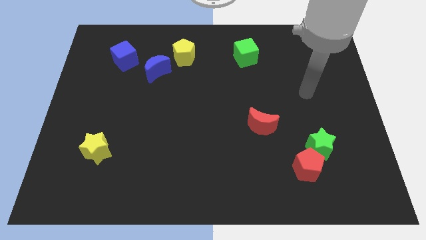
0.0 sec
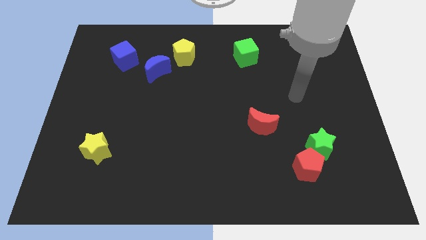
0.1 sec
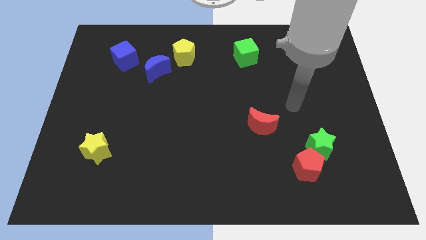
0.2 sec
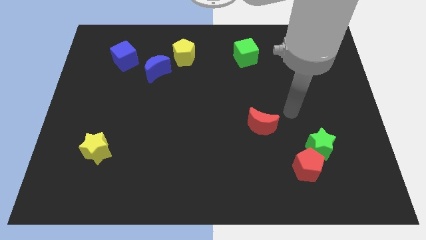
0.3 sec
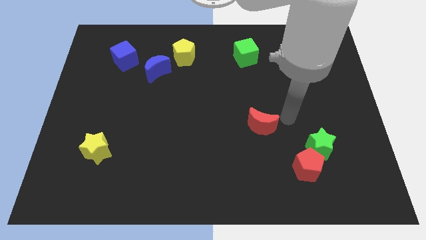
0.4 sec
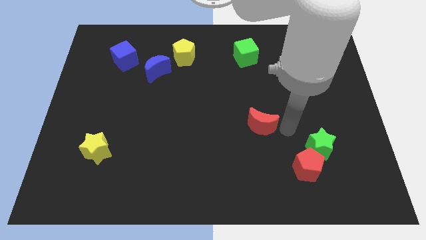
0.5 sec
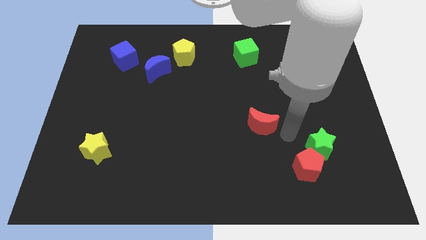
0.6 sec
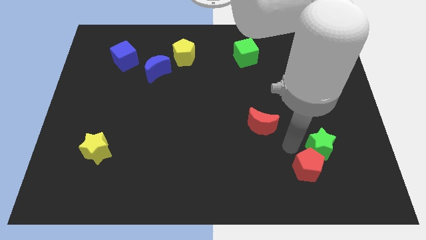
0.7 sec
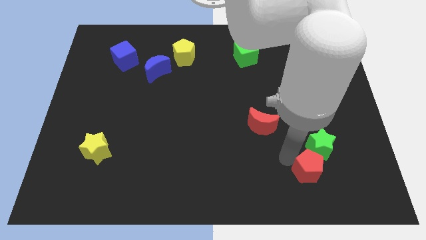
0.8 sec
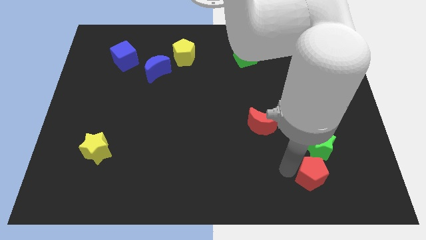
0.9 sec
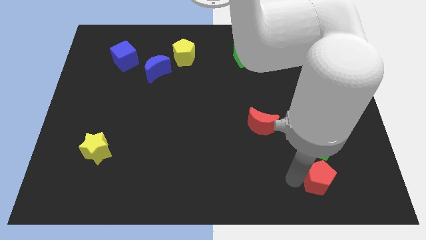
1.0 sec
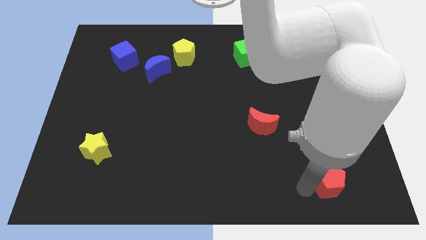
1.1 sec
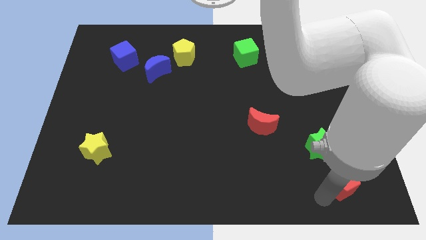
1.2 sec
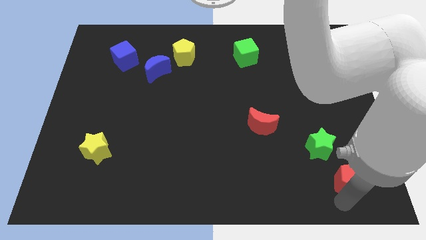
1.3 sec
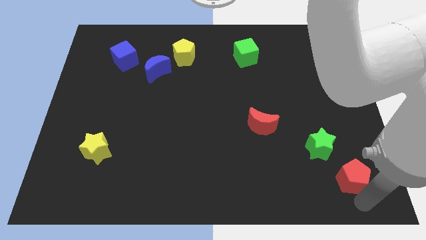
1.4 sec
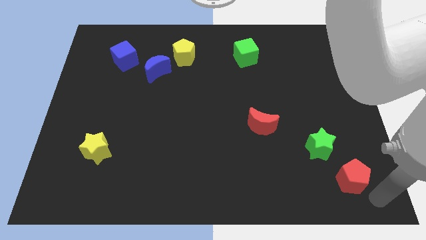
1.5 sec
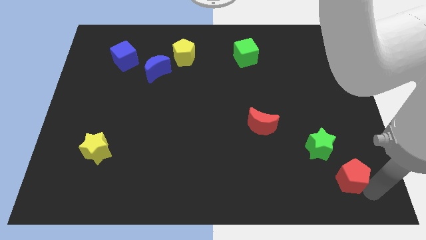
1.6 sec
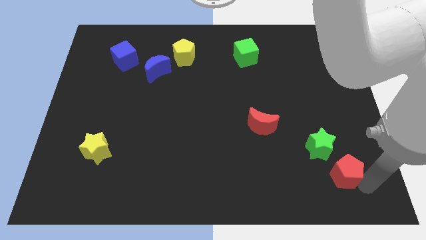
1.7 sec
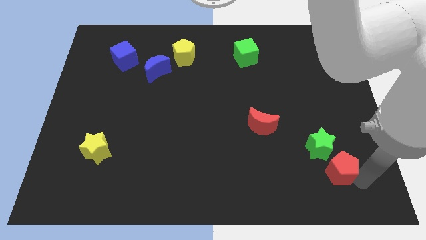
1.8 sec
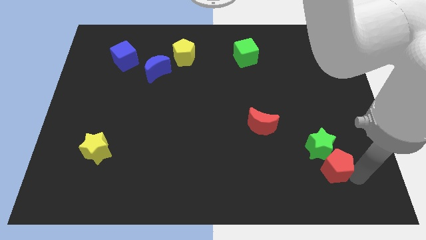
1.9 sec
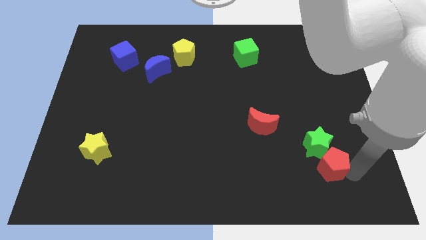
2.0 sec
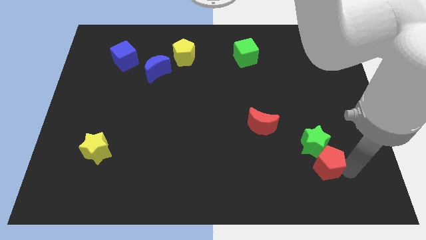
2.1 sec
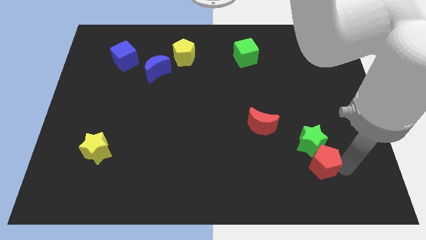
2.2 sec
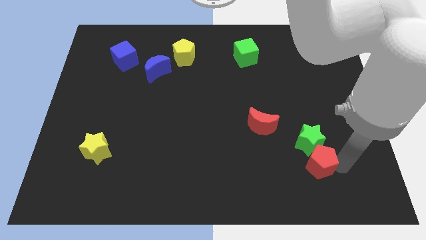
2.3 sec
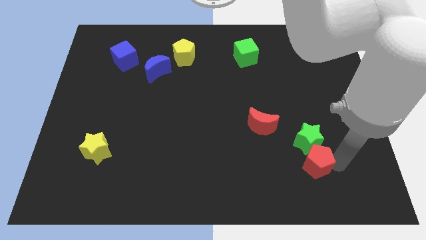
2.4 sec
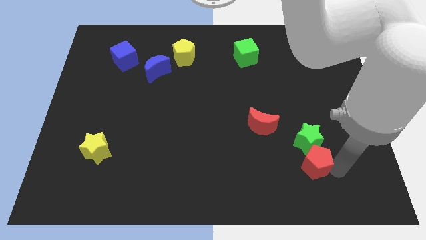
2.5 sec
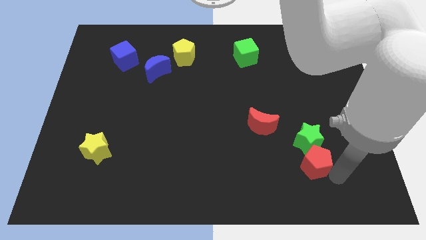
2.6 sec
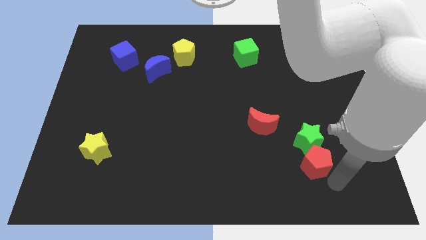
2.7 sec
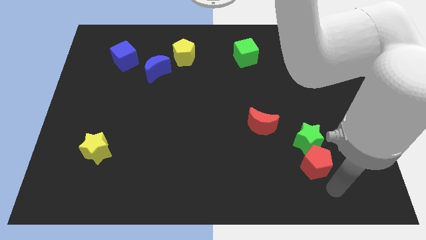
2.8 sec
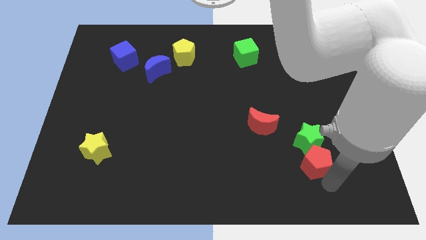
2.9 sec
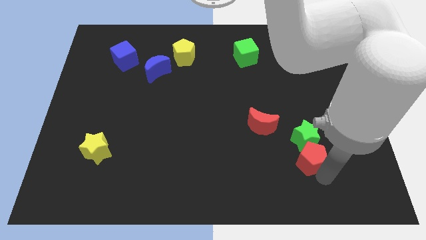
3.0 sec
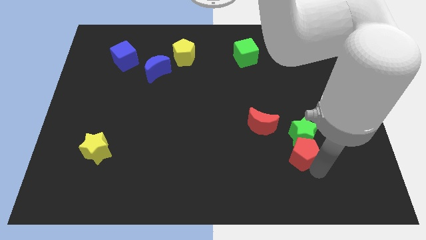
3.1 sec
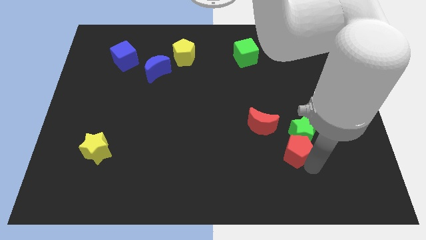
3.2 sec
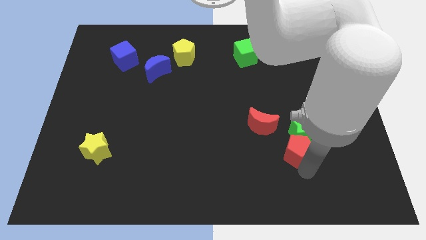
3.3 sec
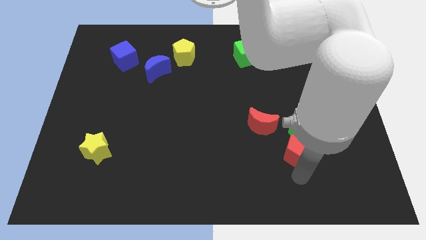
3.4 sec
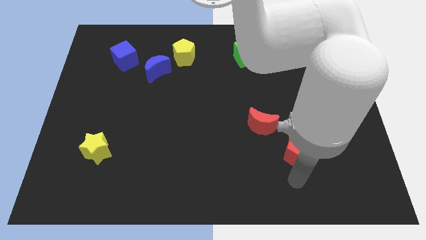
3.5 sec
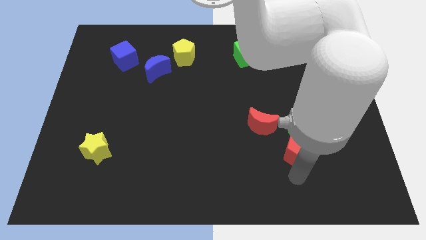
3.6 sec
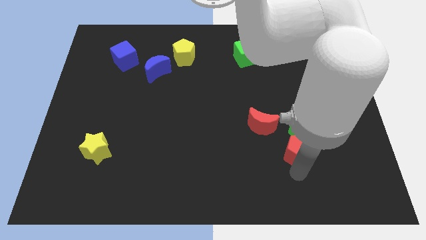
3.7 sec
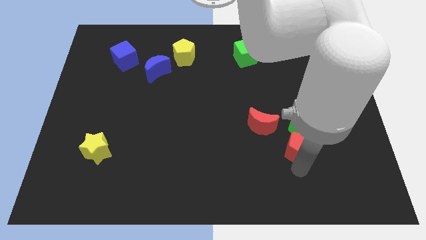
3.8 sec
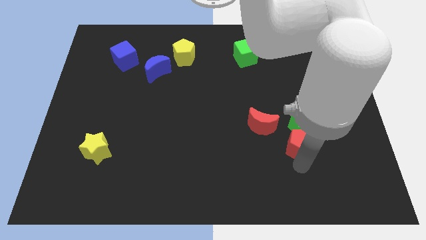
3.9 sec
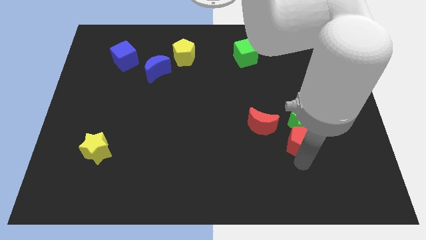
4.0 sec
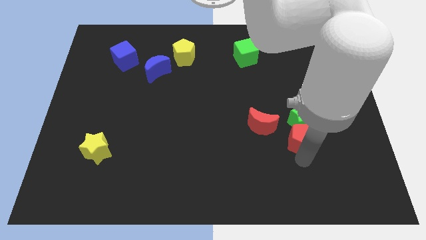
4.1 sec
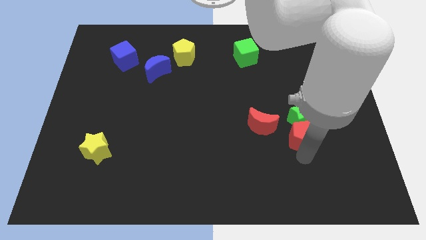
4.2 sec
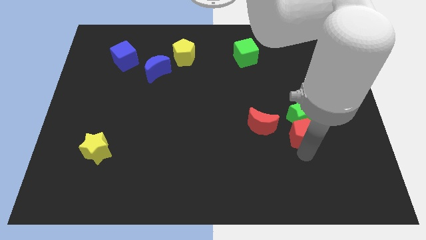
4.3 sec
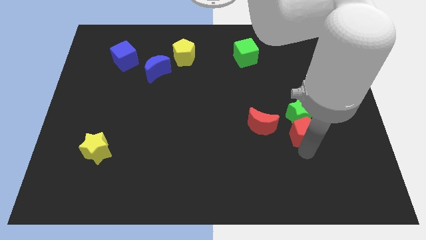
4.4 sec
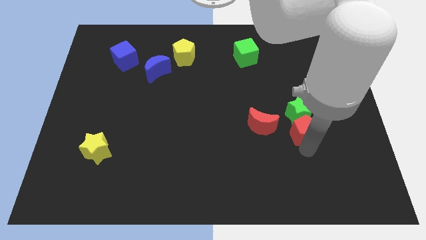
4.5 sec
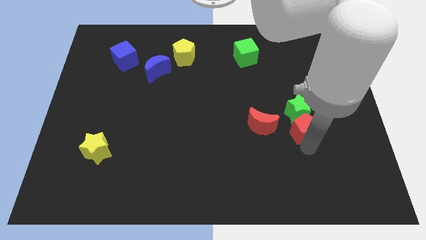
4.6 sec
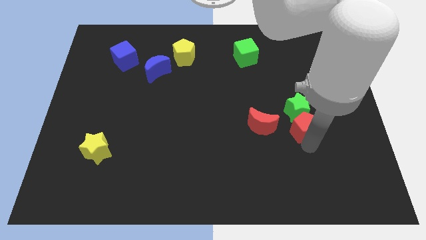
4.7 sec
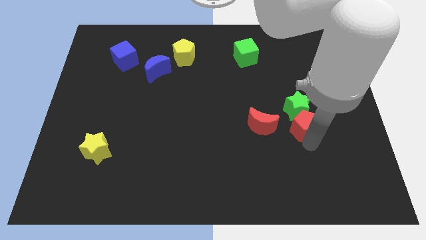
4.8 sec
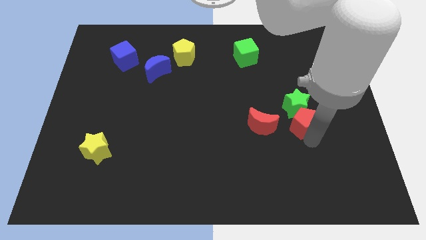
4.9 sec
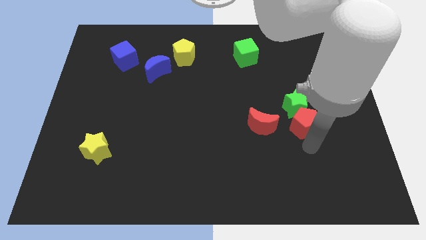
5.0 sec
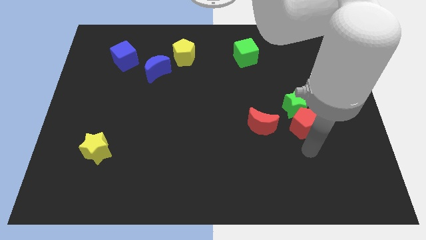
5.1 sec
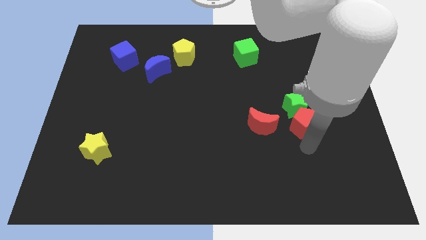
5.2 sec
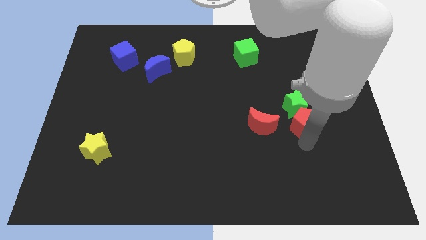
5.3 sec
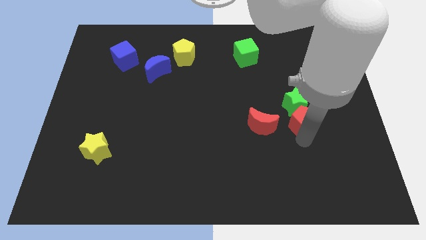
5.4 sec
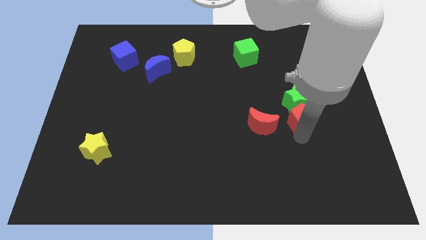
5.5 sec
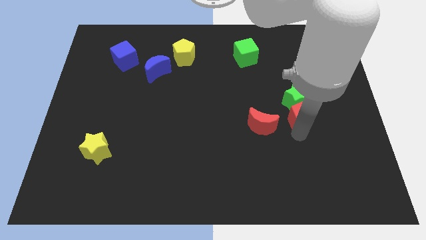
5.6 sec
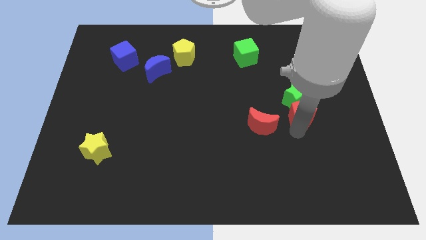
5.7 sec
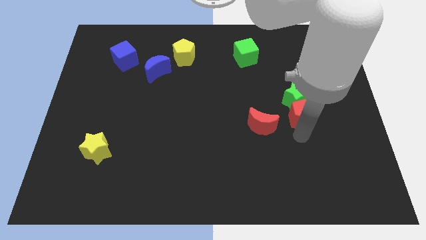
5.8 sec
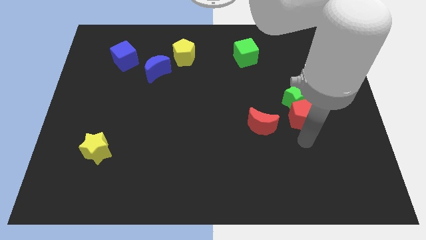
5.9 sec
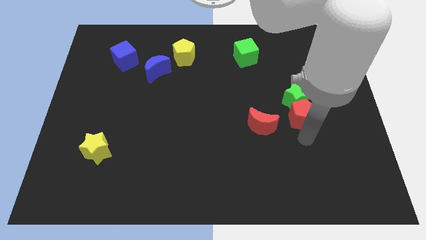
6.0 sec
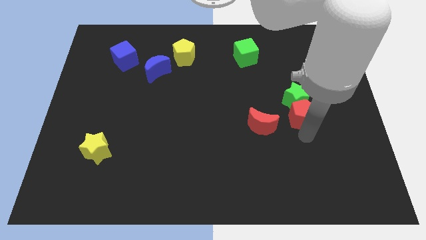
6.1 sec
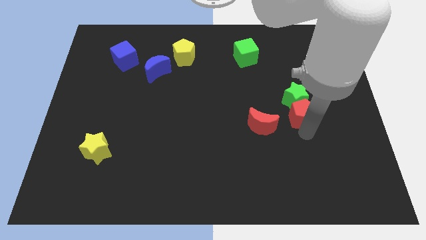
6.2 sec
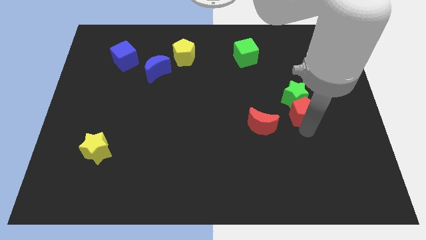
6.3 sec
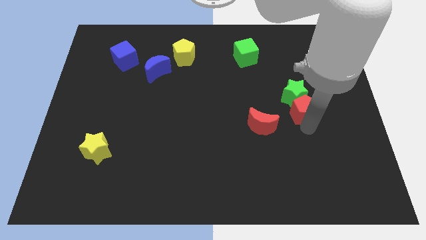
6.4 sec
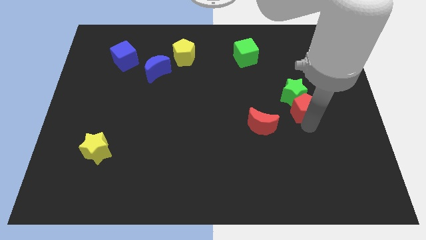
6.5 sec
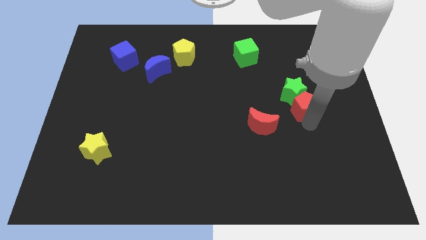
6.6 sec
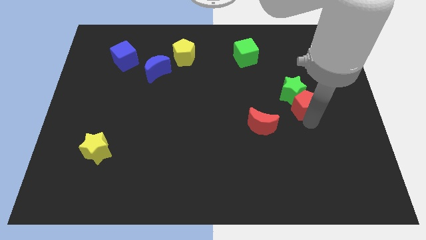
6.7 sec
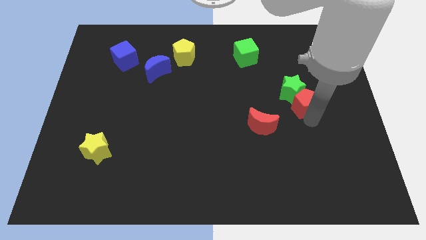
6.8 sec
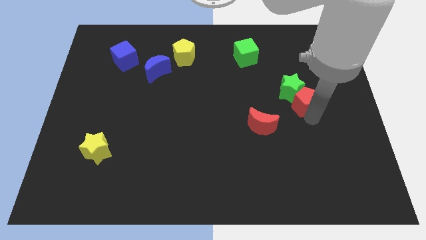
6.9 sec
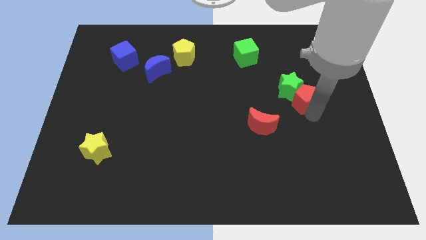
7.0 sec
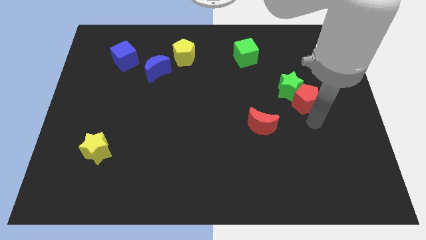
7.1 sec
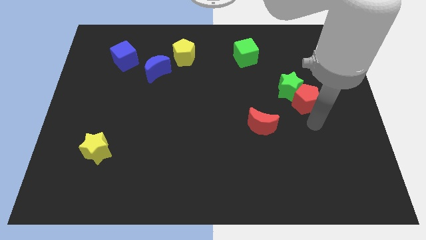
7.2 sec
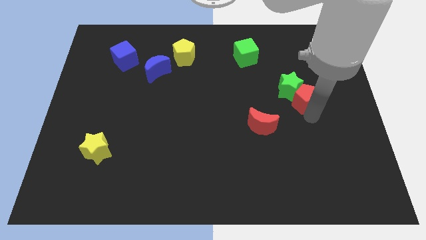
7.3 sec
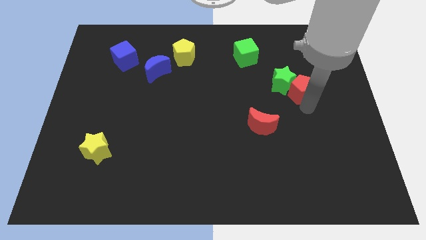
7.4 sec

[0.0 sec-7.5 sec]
move the red pentagon up

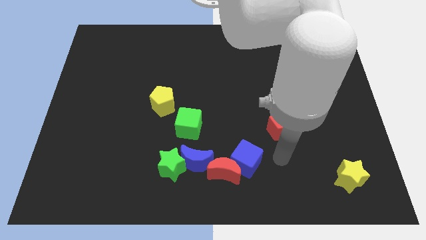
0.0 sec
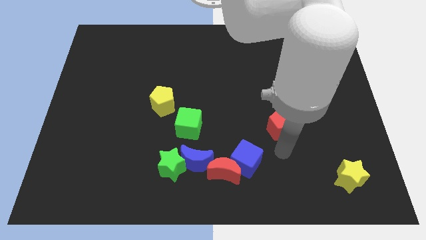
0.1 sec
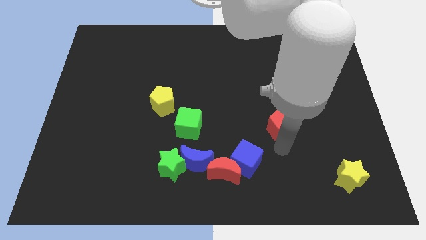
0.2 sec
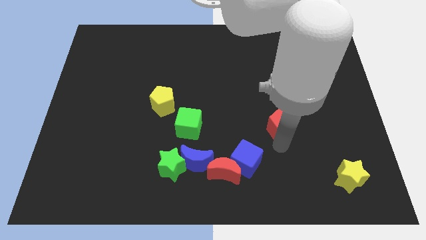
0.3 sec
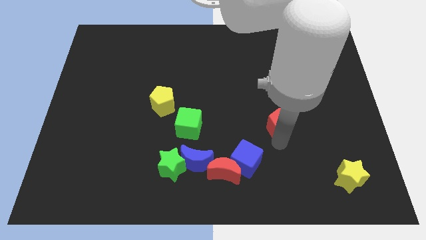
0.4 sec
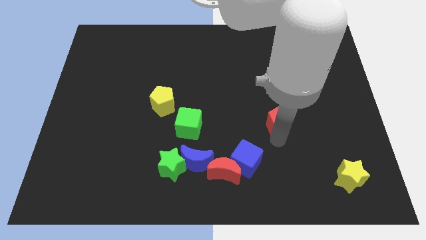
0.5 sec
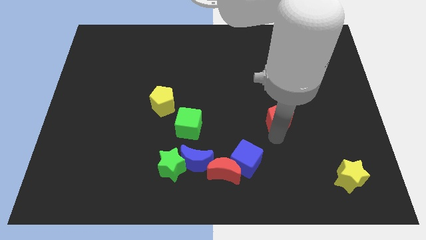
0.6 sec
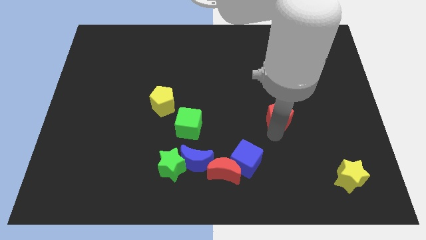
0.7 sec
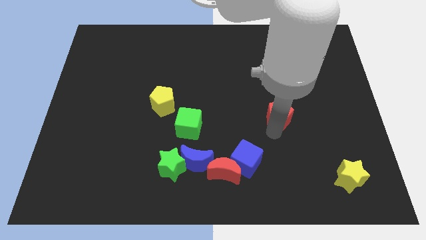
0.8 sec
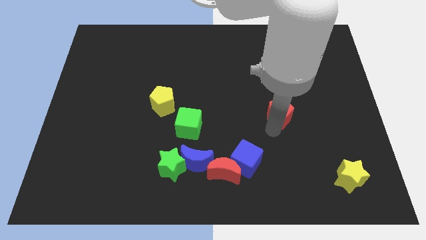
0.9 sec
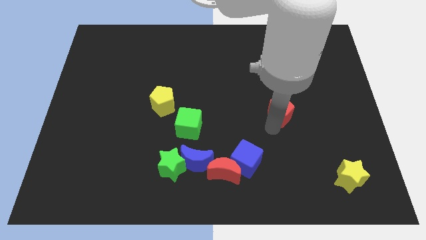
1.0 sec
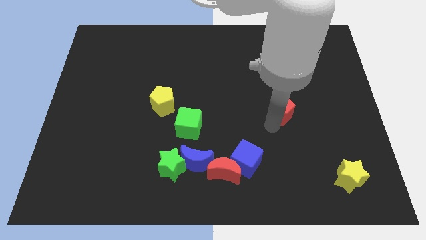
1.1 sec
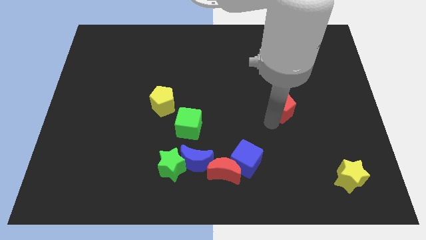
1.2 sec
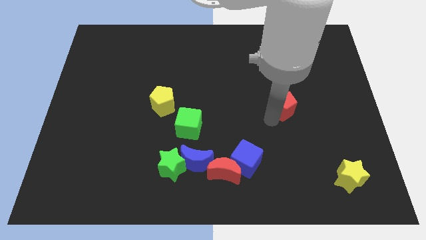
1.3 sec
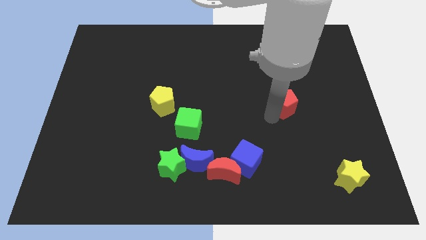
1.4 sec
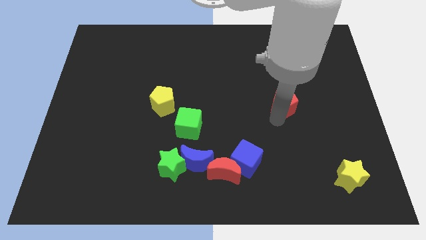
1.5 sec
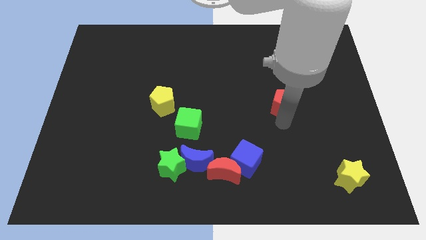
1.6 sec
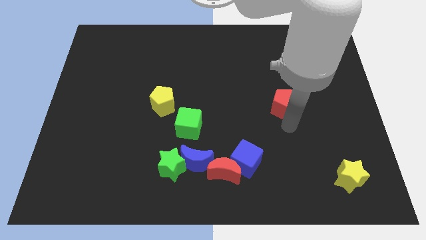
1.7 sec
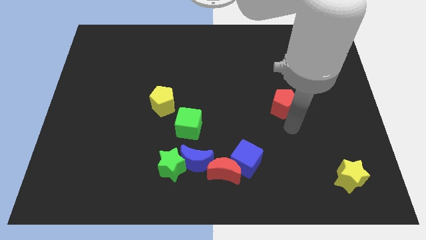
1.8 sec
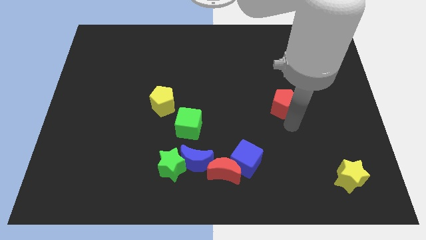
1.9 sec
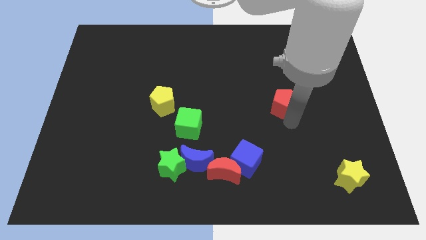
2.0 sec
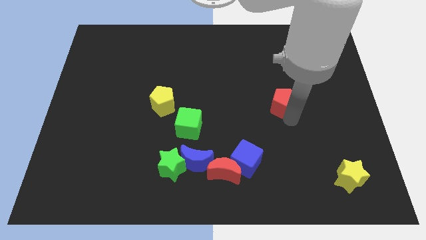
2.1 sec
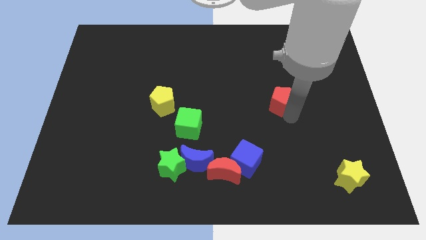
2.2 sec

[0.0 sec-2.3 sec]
slightly slide the red pentagon upwards
